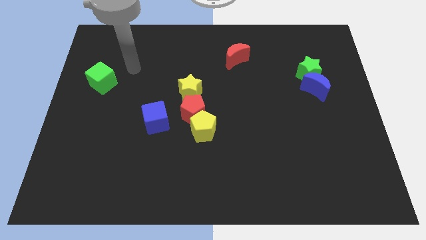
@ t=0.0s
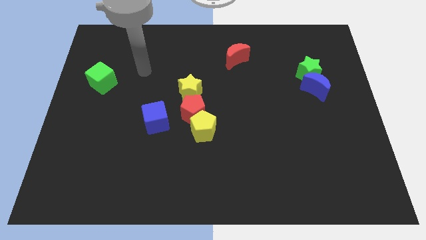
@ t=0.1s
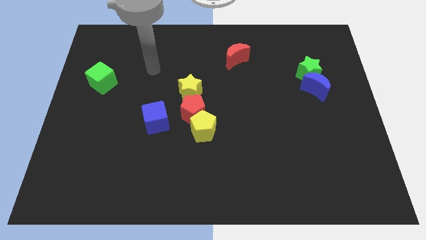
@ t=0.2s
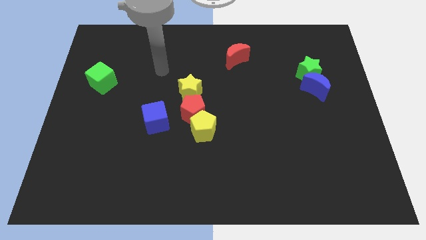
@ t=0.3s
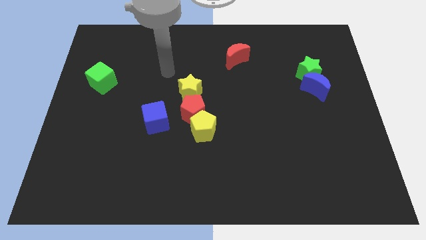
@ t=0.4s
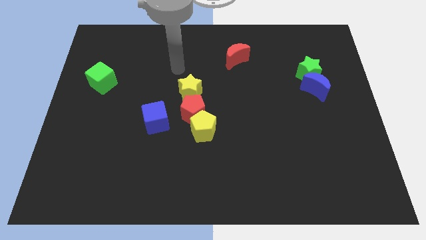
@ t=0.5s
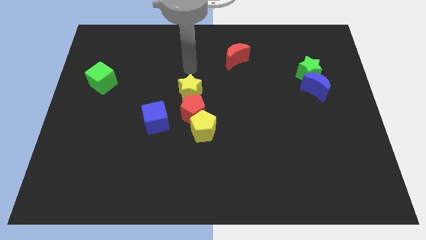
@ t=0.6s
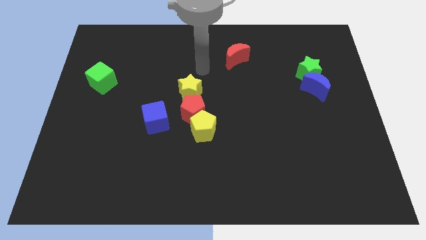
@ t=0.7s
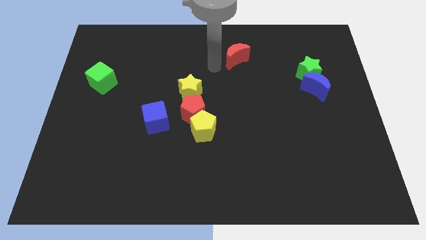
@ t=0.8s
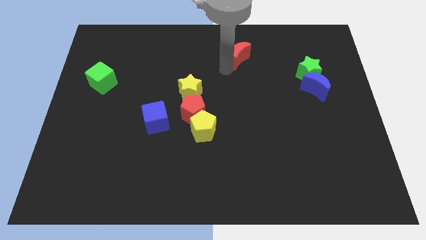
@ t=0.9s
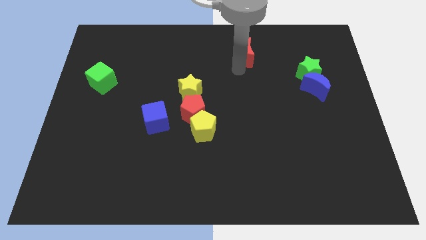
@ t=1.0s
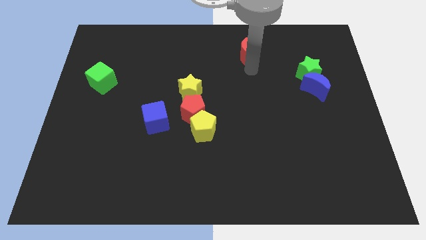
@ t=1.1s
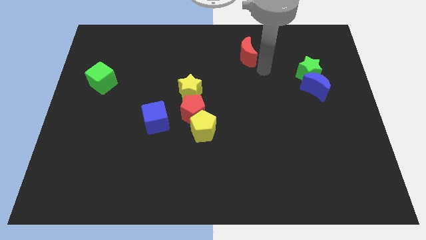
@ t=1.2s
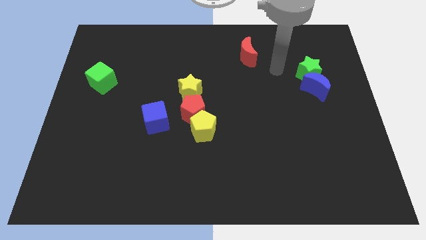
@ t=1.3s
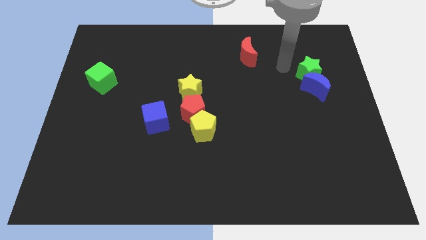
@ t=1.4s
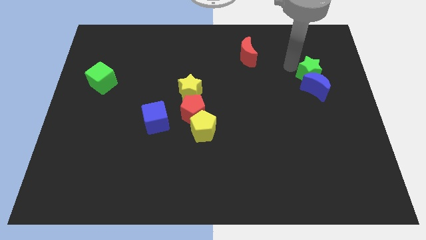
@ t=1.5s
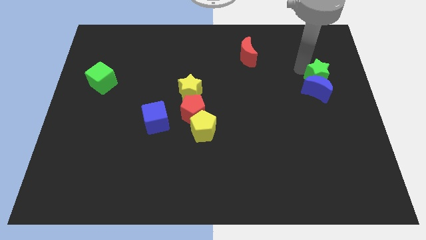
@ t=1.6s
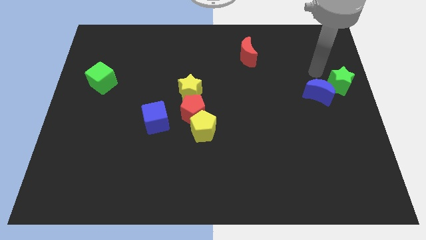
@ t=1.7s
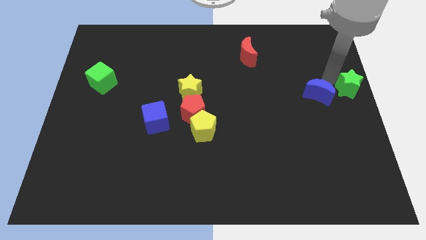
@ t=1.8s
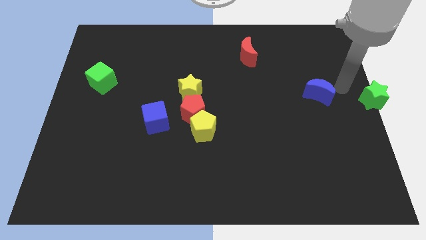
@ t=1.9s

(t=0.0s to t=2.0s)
separate the blue moon from the green star

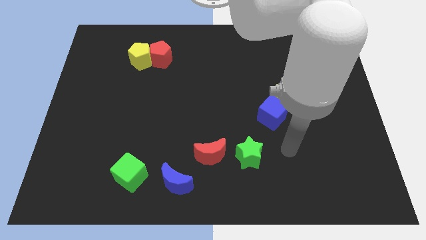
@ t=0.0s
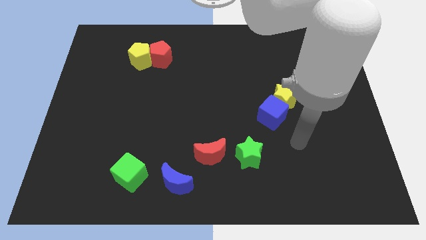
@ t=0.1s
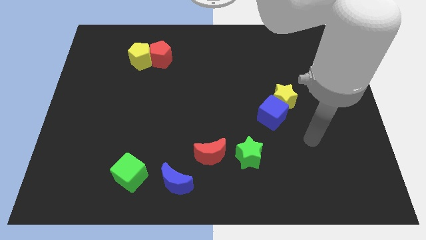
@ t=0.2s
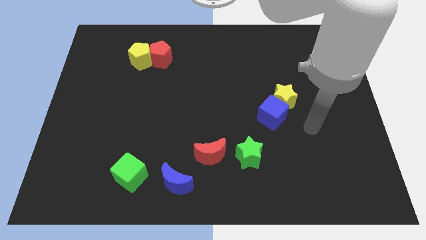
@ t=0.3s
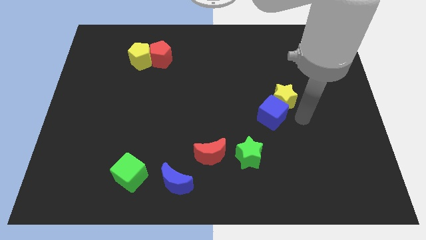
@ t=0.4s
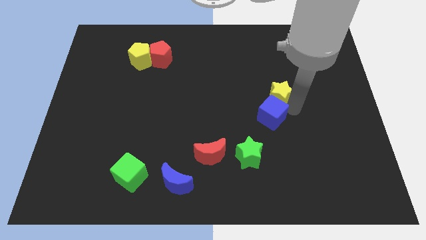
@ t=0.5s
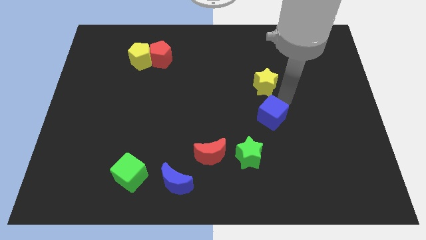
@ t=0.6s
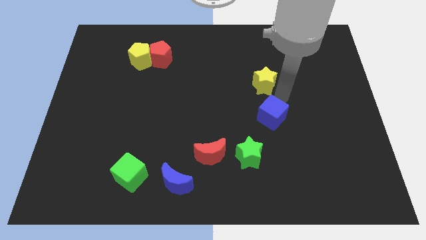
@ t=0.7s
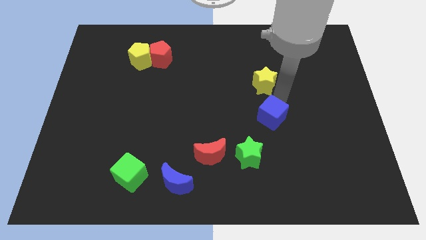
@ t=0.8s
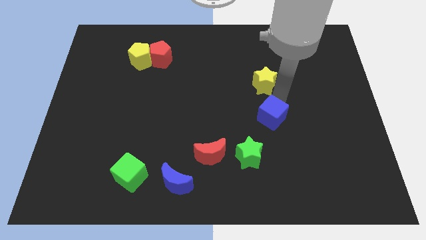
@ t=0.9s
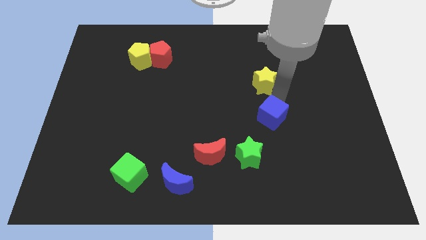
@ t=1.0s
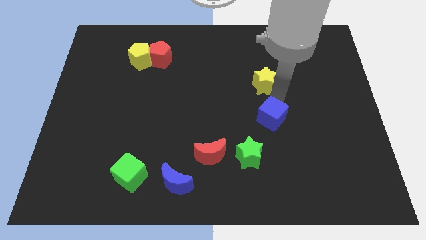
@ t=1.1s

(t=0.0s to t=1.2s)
move the blue cube away from the yellow star

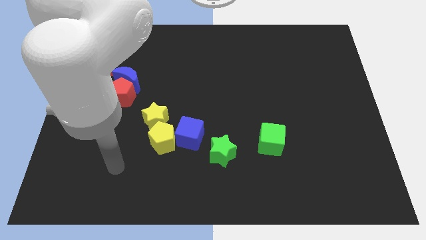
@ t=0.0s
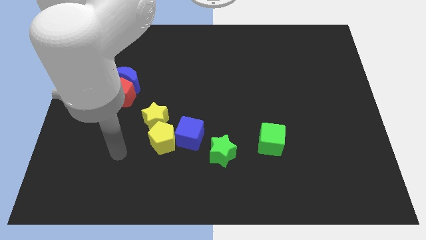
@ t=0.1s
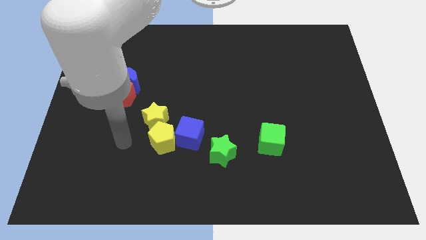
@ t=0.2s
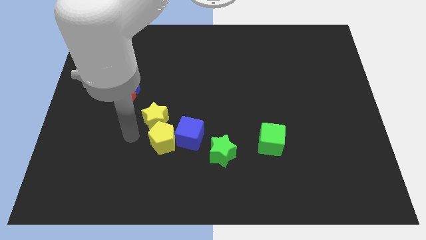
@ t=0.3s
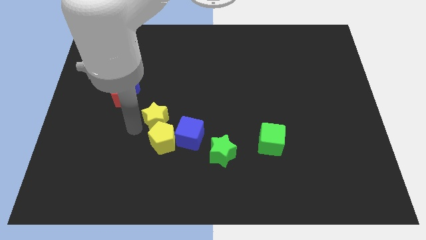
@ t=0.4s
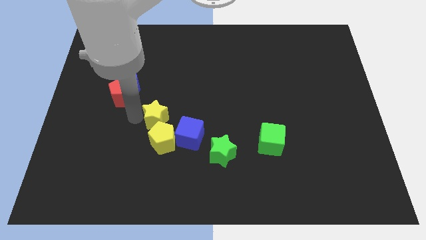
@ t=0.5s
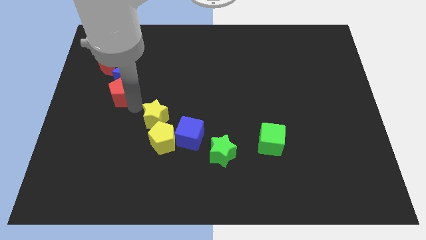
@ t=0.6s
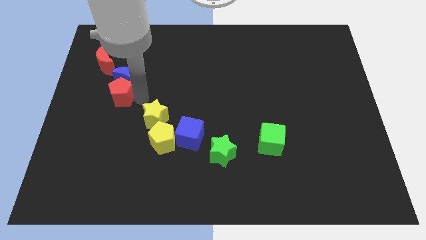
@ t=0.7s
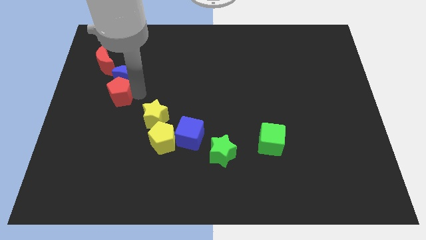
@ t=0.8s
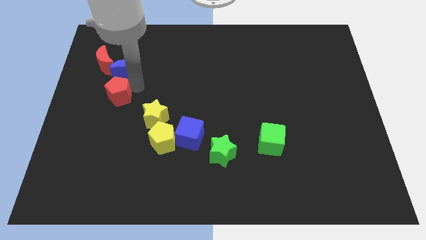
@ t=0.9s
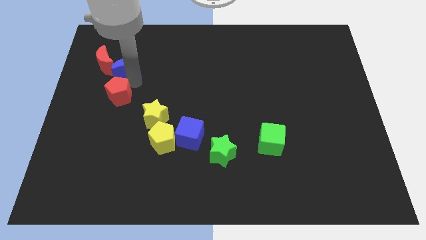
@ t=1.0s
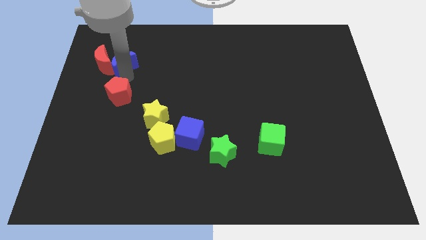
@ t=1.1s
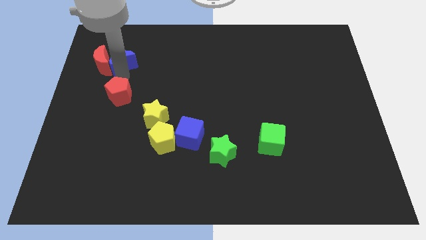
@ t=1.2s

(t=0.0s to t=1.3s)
separate the red pentagon from the blue moon

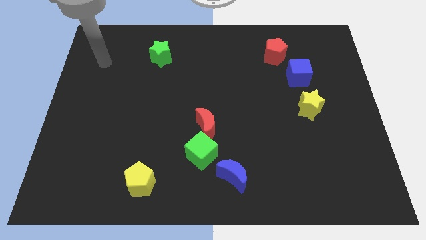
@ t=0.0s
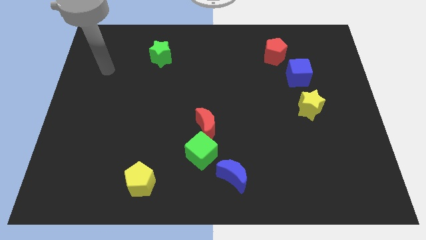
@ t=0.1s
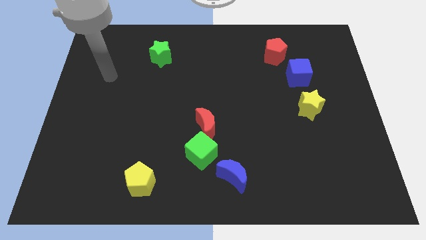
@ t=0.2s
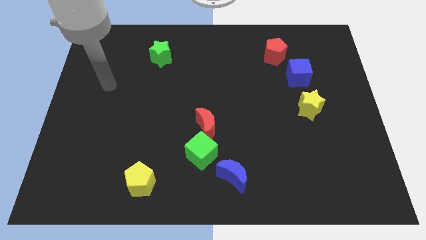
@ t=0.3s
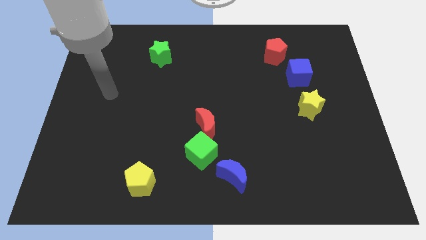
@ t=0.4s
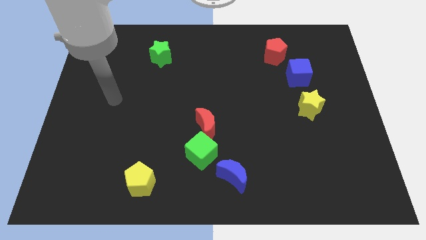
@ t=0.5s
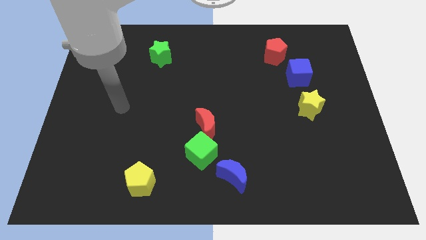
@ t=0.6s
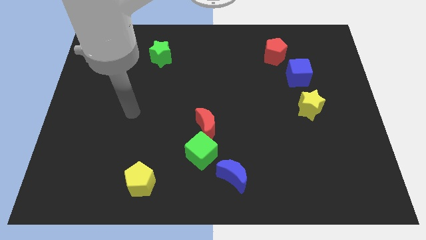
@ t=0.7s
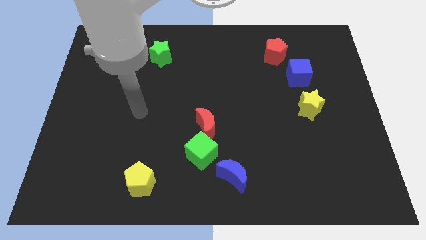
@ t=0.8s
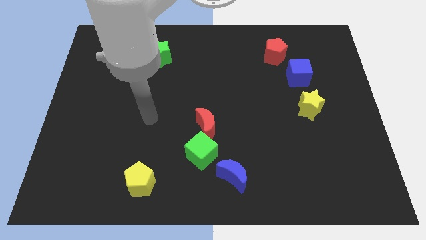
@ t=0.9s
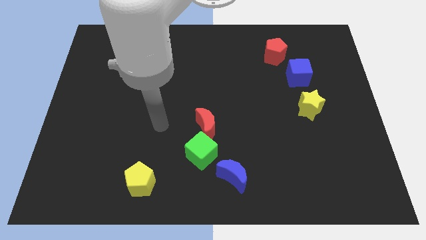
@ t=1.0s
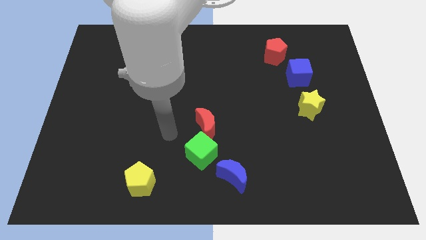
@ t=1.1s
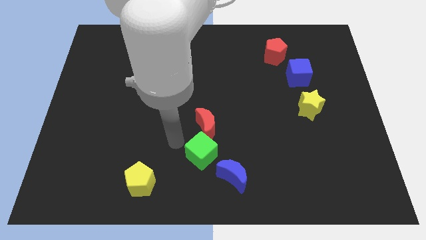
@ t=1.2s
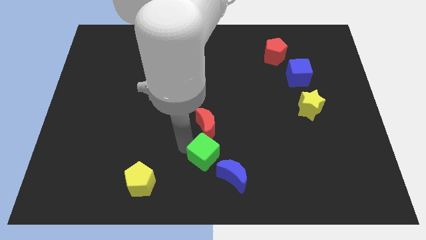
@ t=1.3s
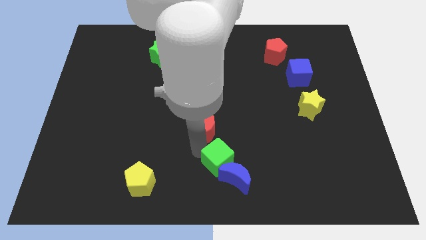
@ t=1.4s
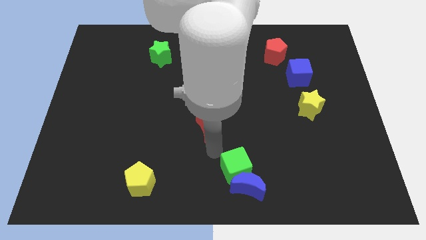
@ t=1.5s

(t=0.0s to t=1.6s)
move the red moon away from the green cube

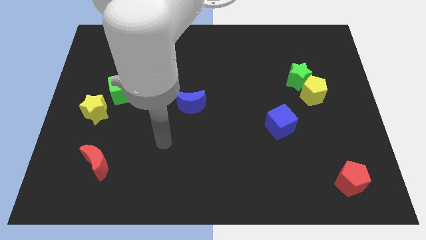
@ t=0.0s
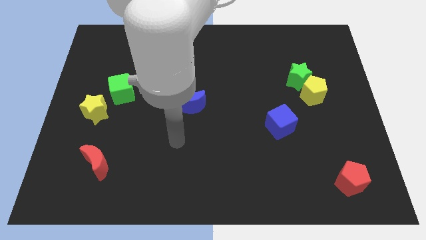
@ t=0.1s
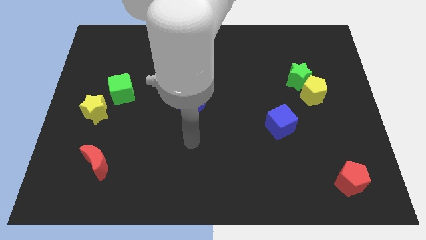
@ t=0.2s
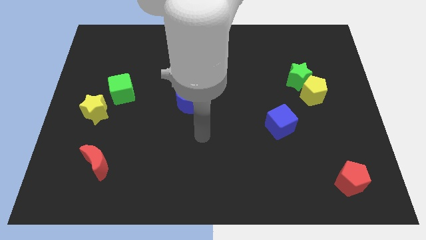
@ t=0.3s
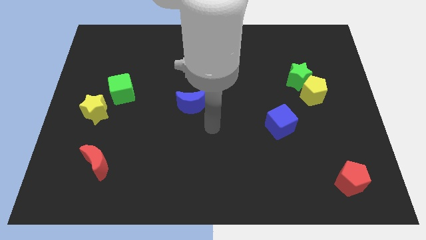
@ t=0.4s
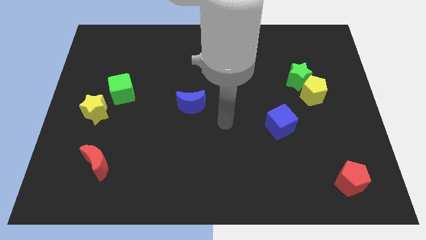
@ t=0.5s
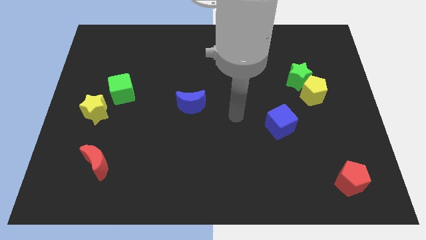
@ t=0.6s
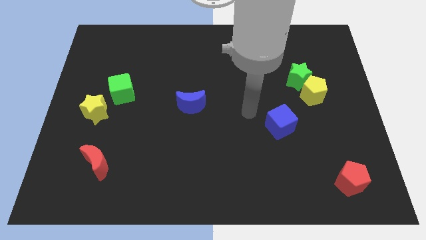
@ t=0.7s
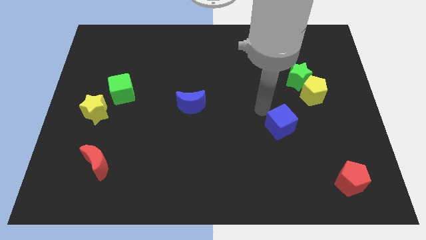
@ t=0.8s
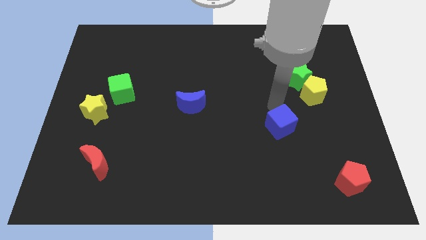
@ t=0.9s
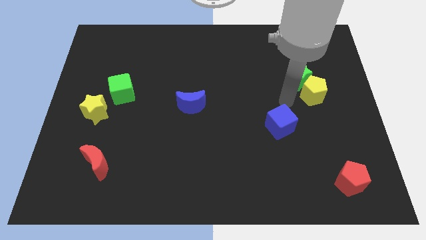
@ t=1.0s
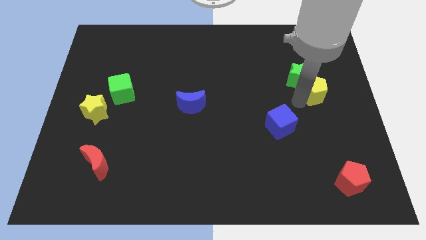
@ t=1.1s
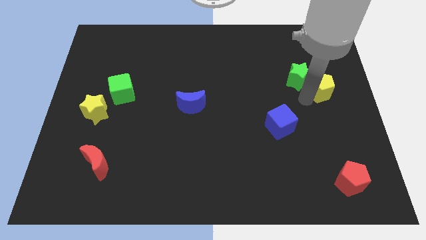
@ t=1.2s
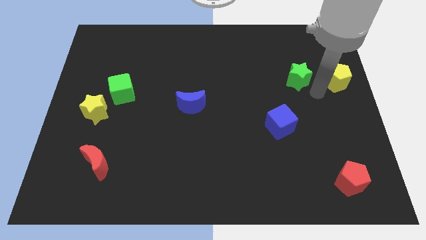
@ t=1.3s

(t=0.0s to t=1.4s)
move the green star away from the yellow pentagon

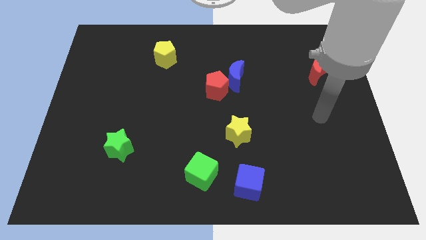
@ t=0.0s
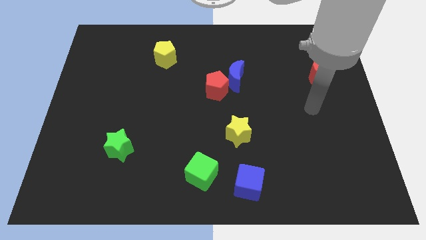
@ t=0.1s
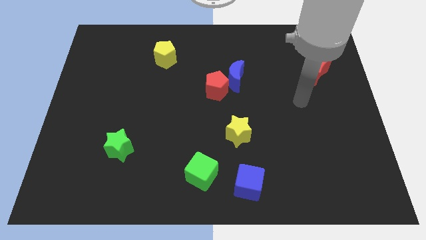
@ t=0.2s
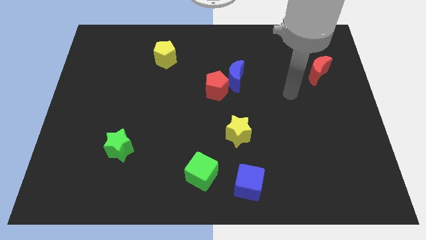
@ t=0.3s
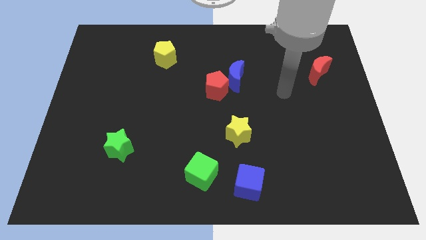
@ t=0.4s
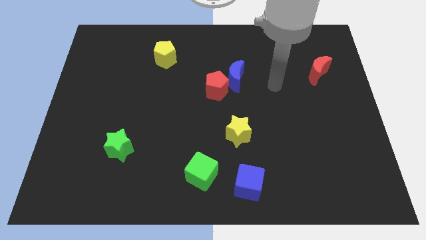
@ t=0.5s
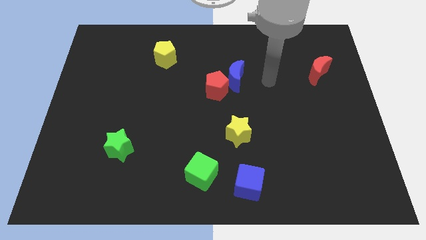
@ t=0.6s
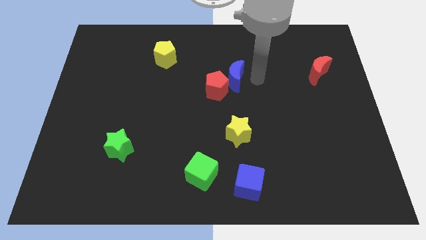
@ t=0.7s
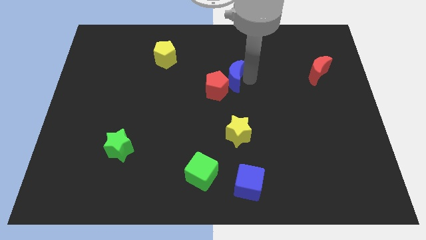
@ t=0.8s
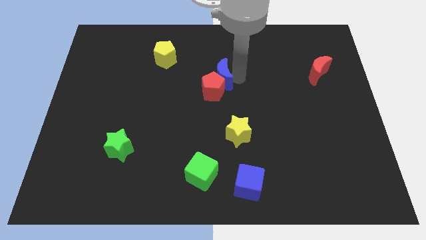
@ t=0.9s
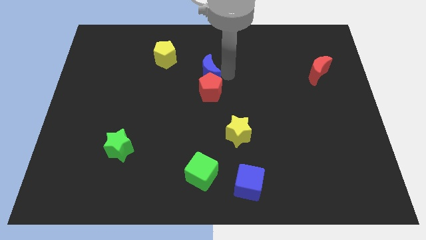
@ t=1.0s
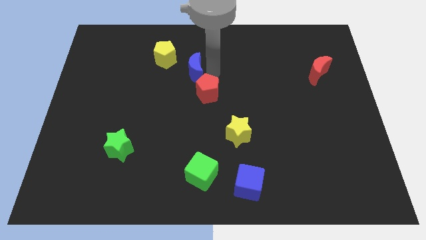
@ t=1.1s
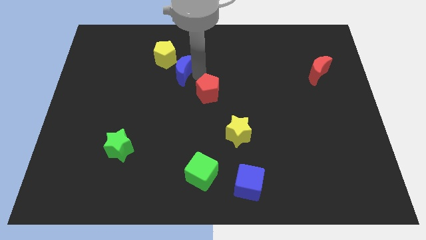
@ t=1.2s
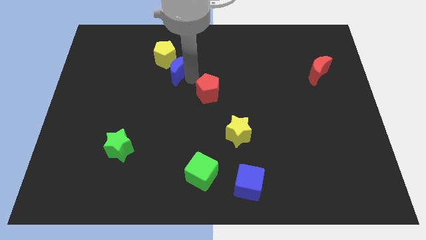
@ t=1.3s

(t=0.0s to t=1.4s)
move the red pentagon away from the blue moon

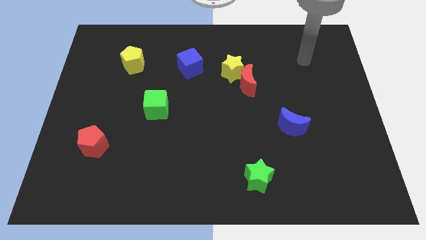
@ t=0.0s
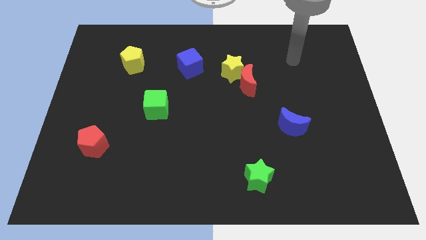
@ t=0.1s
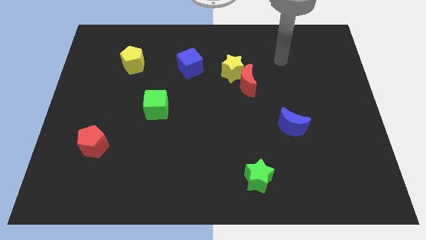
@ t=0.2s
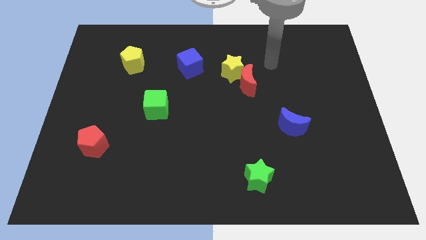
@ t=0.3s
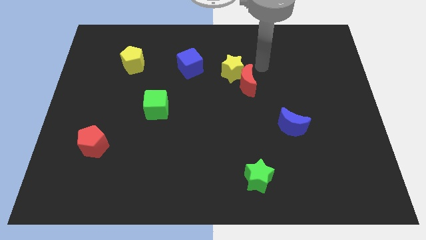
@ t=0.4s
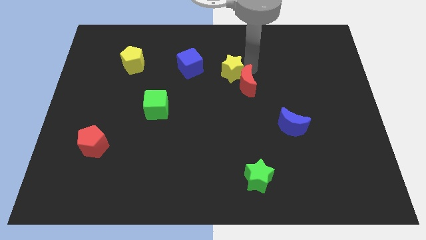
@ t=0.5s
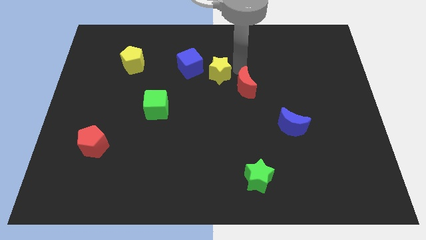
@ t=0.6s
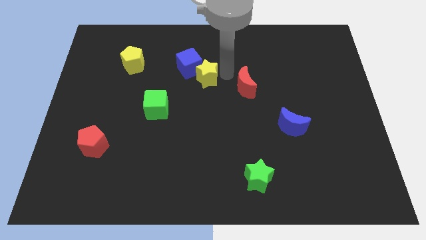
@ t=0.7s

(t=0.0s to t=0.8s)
separate the red moon from the yellow star
